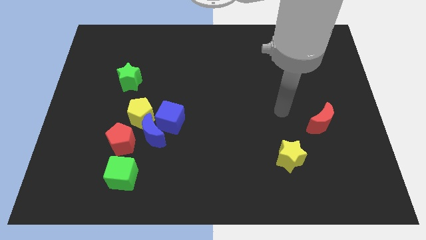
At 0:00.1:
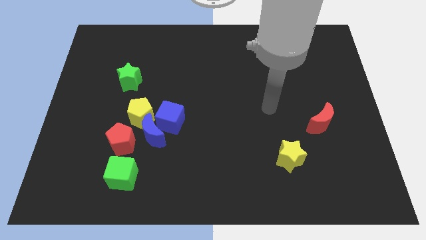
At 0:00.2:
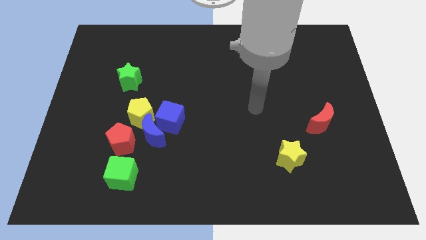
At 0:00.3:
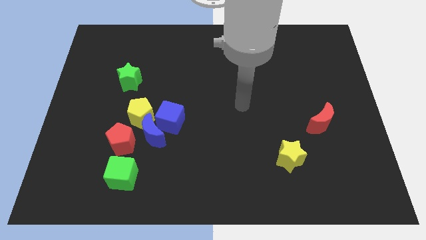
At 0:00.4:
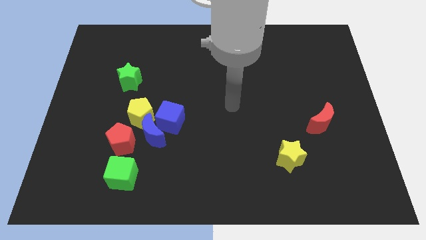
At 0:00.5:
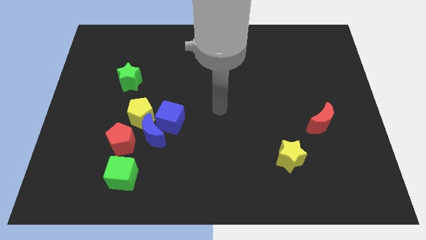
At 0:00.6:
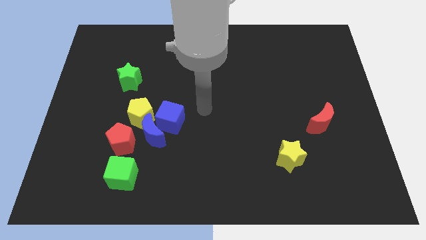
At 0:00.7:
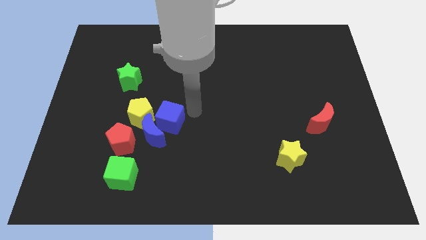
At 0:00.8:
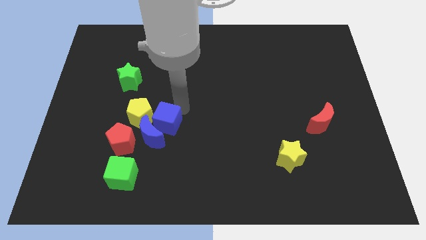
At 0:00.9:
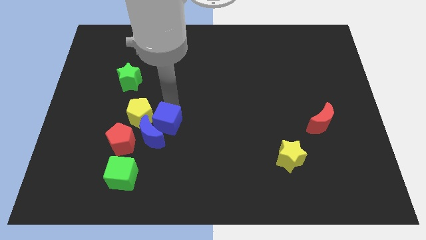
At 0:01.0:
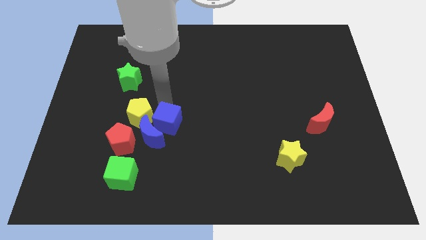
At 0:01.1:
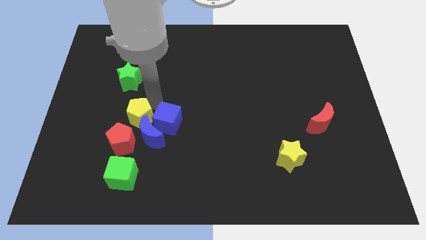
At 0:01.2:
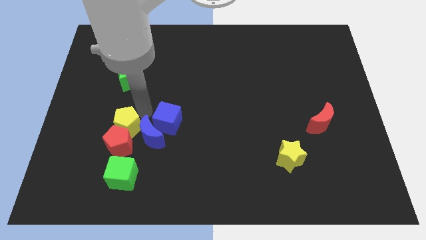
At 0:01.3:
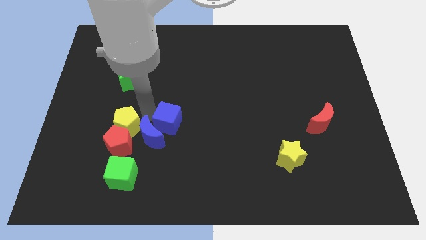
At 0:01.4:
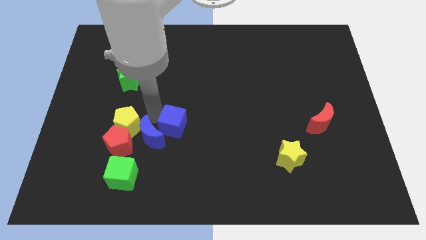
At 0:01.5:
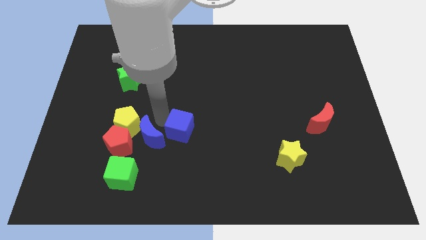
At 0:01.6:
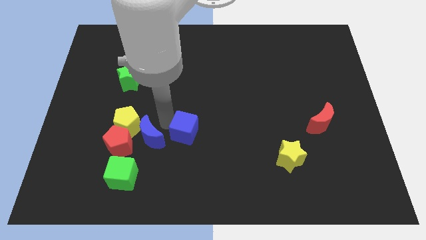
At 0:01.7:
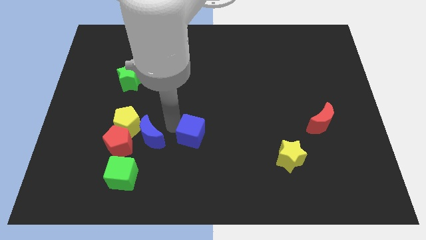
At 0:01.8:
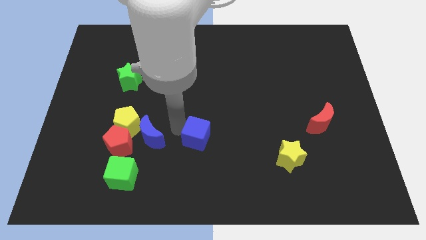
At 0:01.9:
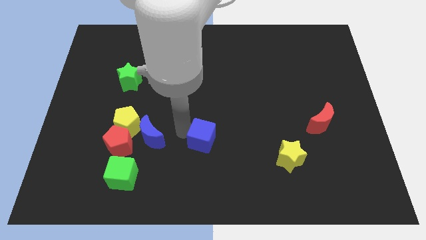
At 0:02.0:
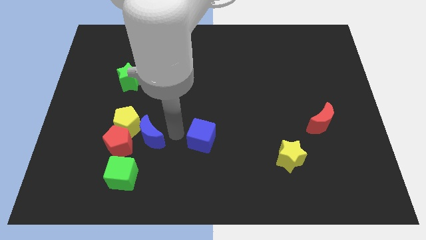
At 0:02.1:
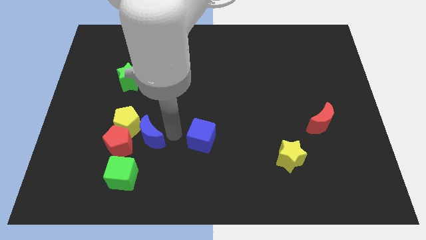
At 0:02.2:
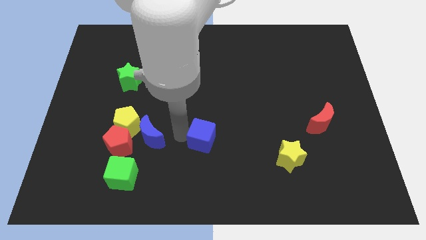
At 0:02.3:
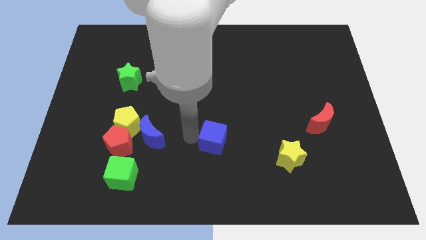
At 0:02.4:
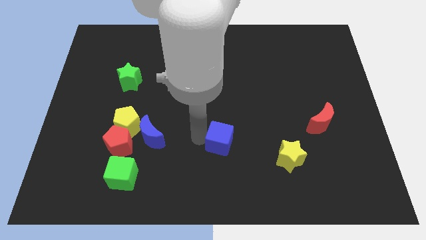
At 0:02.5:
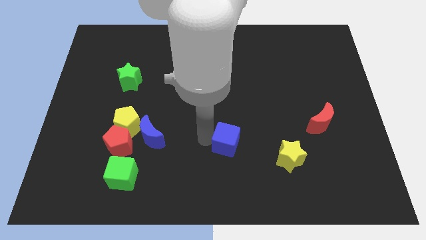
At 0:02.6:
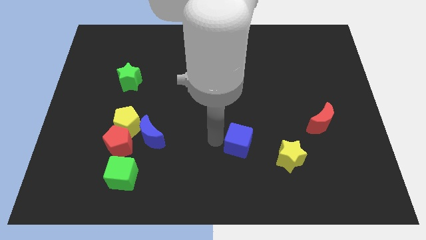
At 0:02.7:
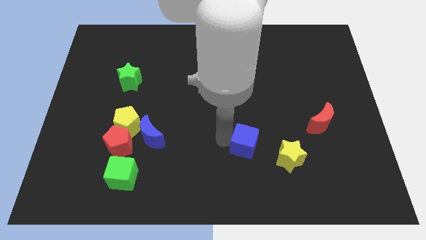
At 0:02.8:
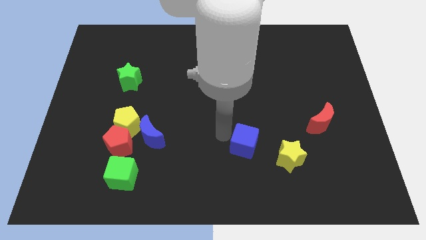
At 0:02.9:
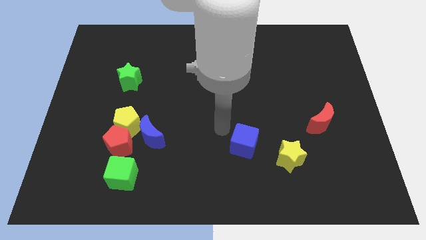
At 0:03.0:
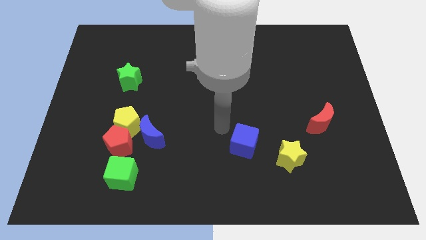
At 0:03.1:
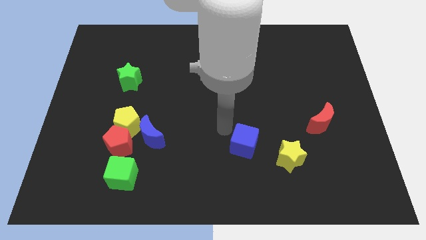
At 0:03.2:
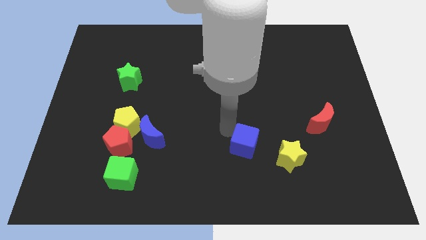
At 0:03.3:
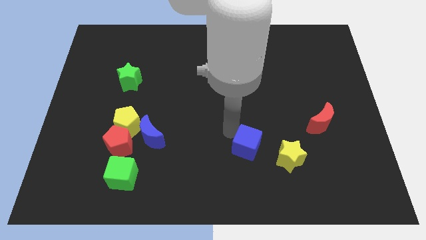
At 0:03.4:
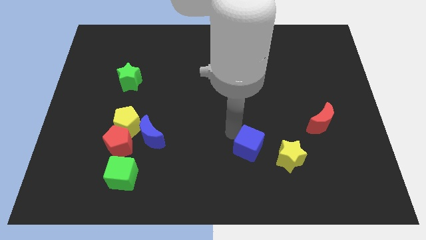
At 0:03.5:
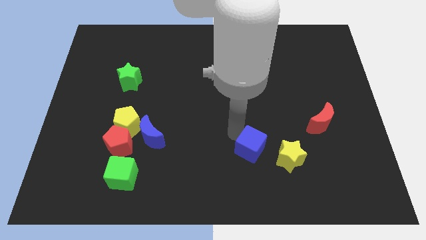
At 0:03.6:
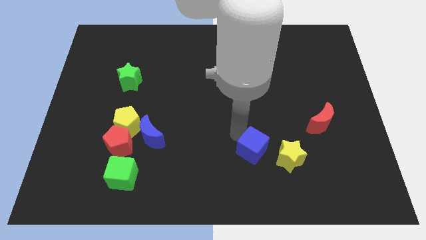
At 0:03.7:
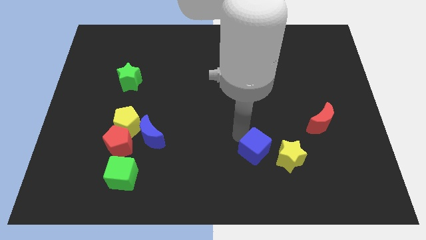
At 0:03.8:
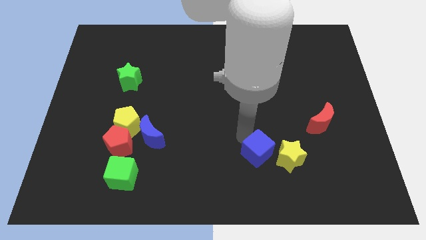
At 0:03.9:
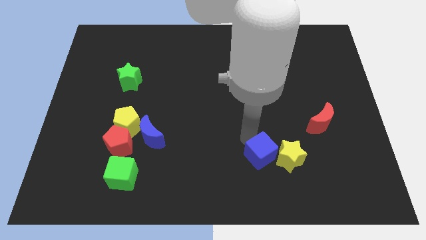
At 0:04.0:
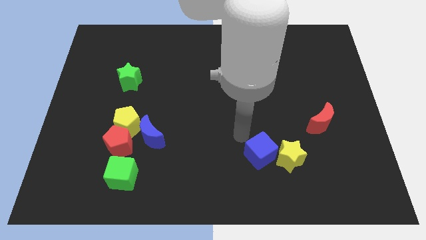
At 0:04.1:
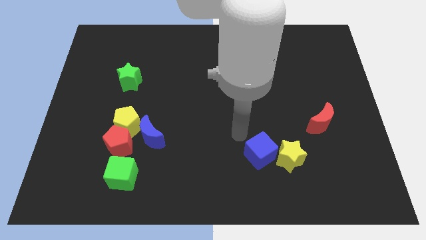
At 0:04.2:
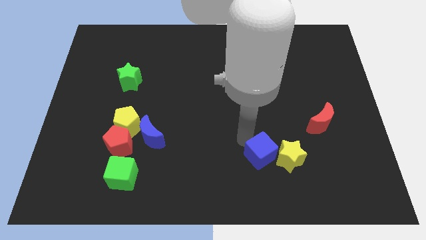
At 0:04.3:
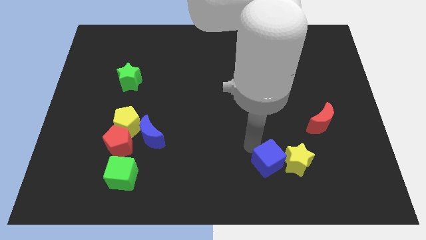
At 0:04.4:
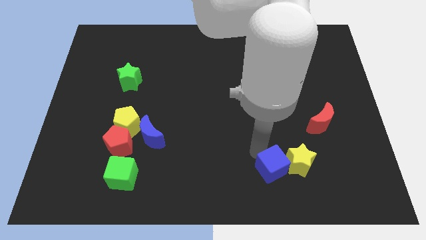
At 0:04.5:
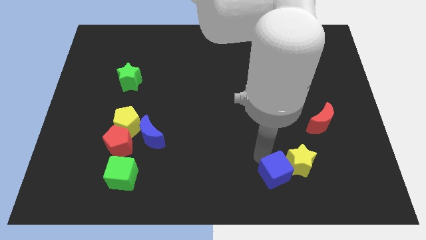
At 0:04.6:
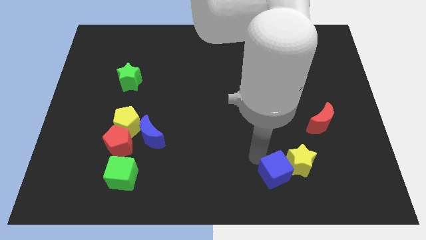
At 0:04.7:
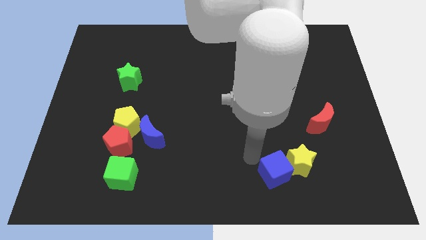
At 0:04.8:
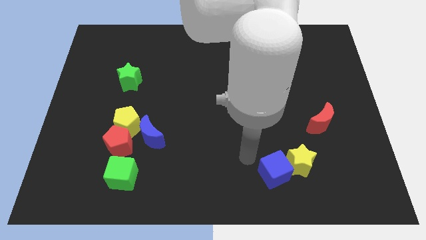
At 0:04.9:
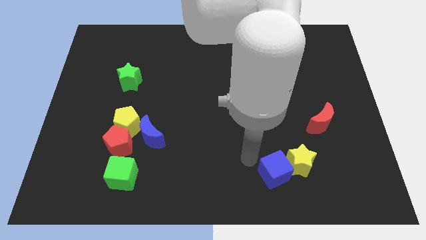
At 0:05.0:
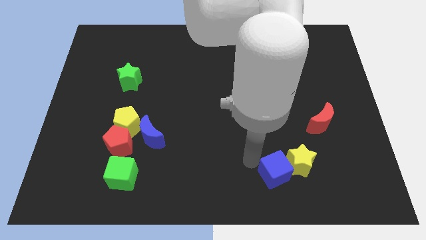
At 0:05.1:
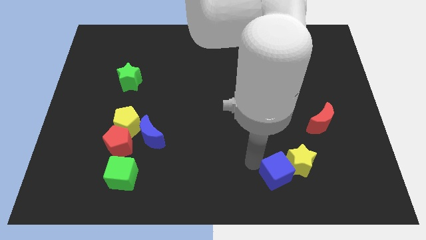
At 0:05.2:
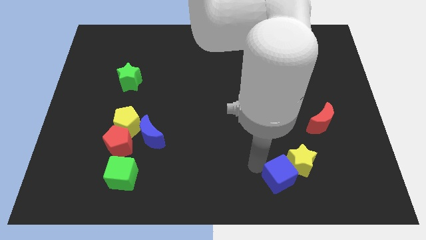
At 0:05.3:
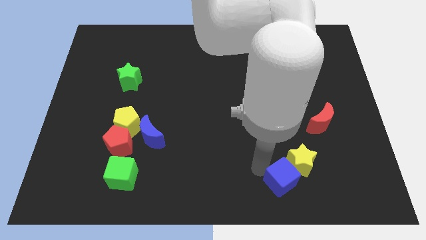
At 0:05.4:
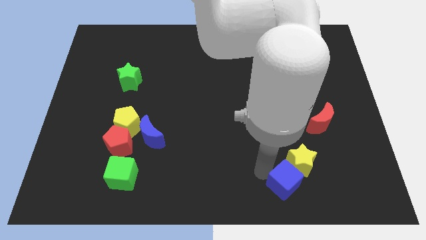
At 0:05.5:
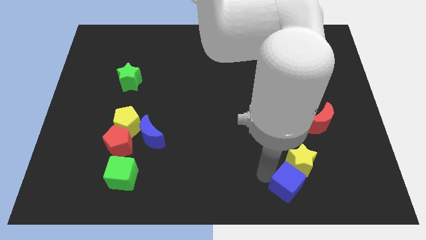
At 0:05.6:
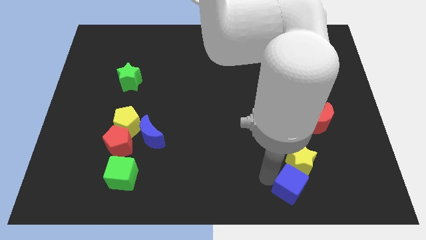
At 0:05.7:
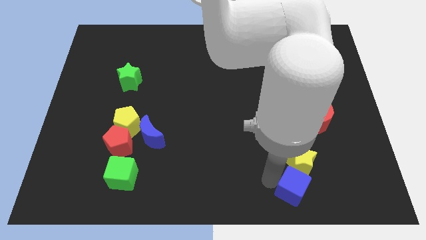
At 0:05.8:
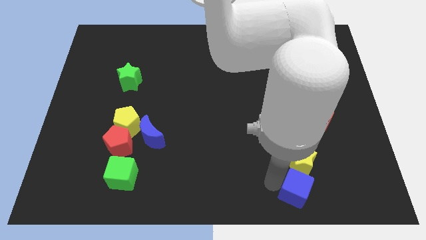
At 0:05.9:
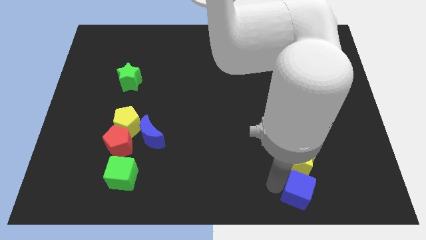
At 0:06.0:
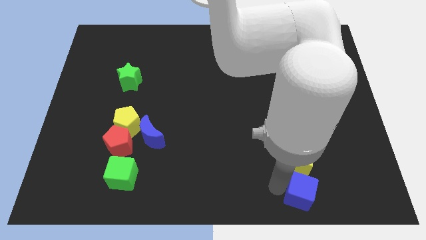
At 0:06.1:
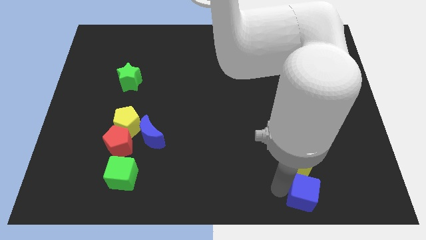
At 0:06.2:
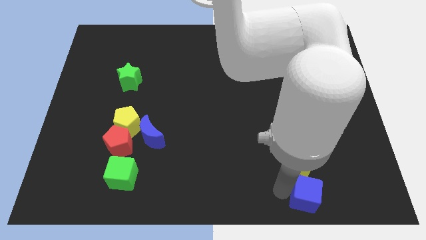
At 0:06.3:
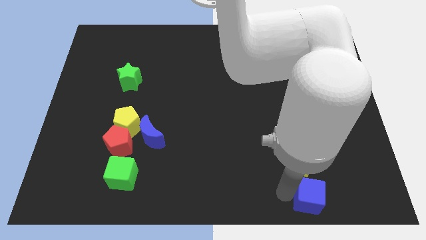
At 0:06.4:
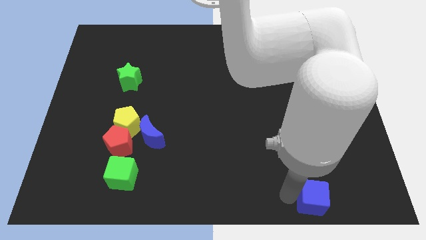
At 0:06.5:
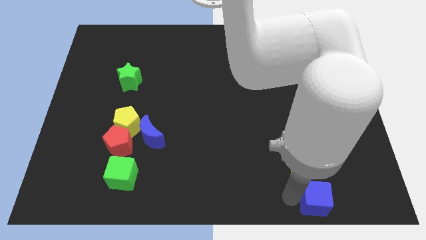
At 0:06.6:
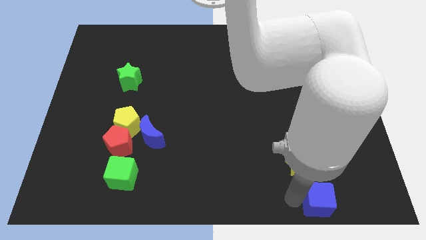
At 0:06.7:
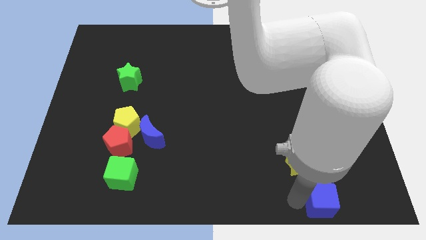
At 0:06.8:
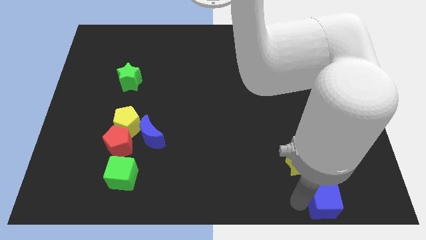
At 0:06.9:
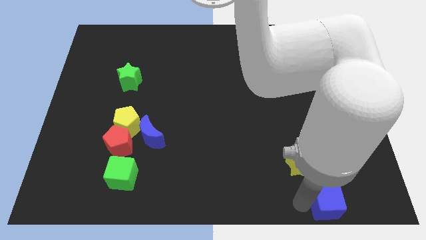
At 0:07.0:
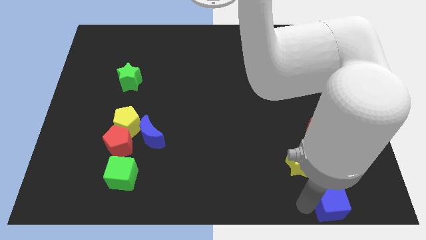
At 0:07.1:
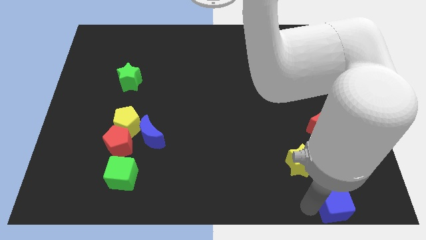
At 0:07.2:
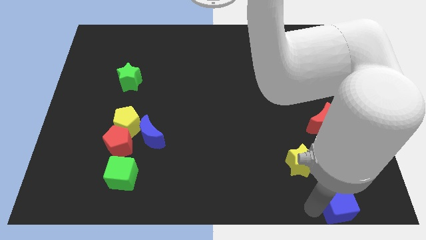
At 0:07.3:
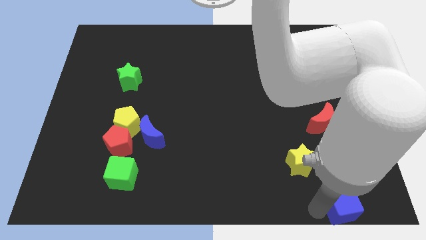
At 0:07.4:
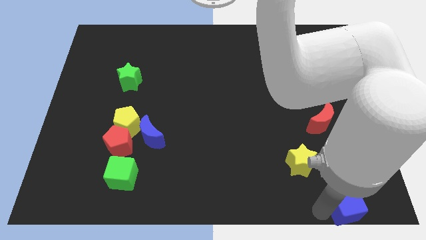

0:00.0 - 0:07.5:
push the blue cube to the bottom right corner
